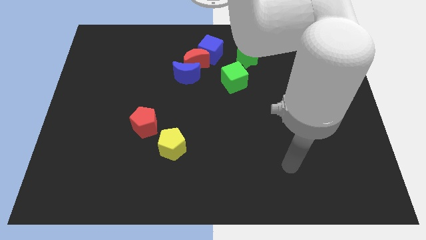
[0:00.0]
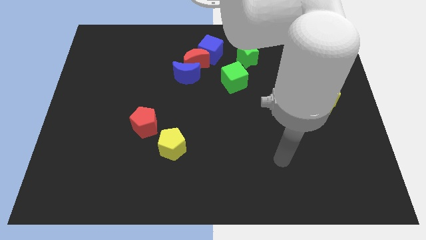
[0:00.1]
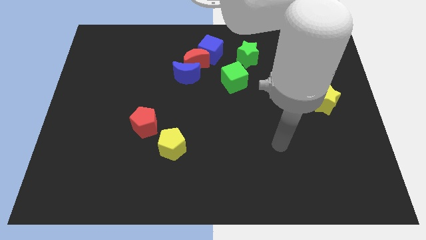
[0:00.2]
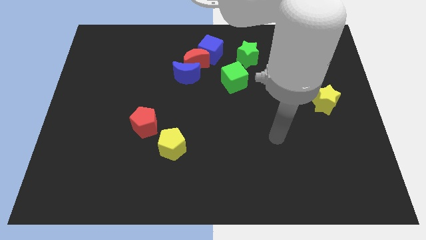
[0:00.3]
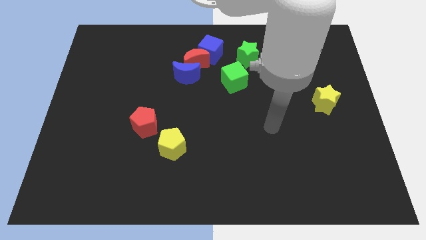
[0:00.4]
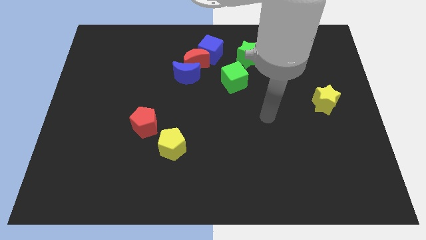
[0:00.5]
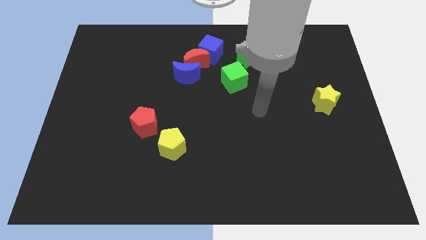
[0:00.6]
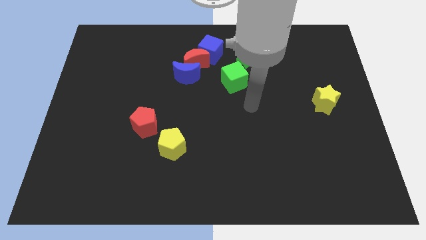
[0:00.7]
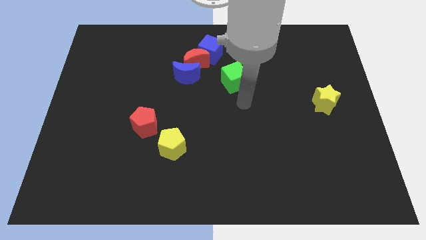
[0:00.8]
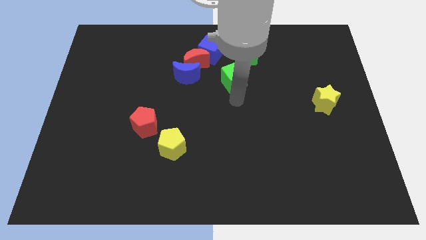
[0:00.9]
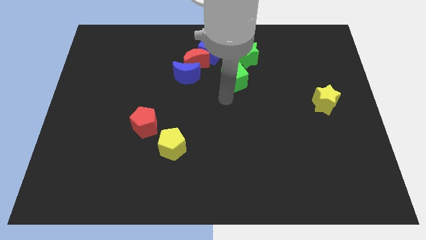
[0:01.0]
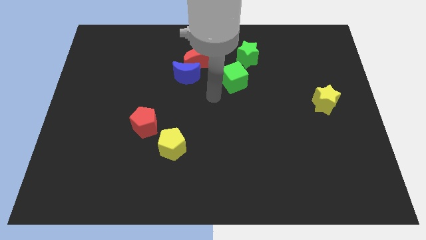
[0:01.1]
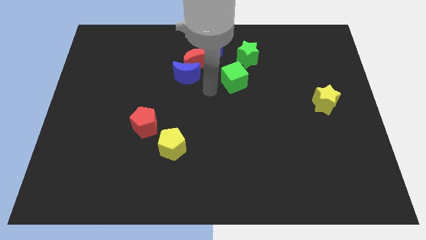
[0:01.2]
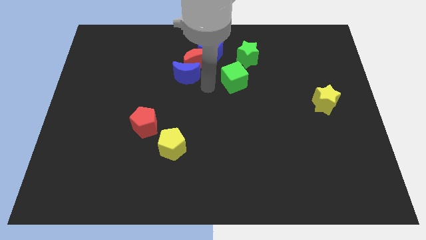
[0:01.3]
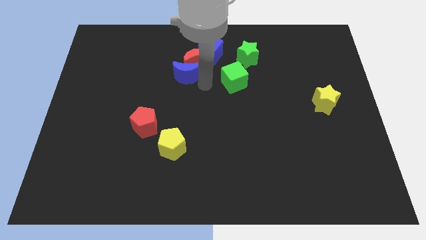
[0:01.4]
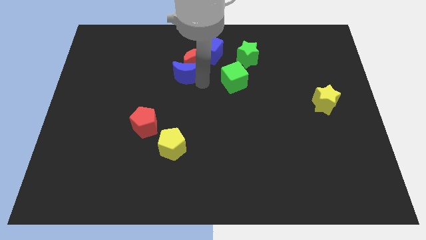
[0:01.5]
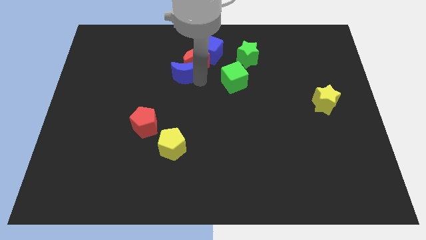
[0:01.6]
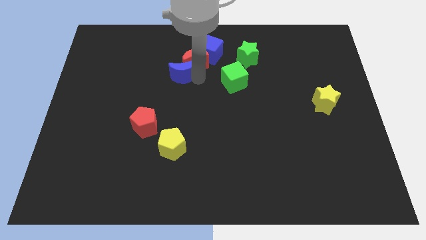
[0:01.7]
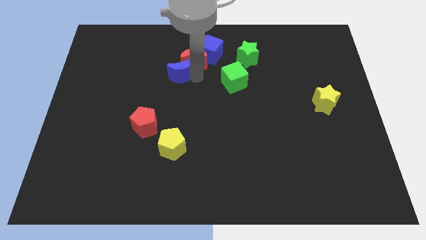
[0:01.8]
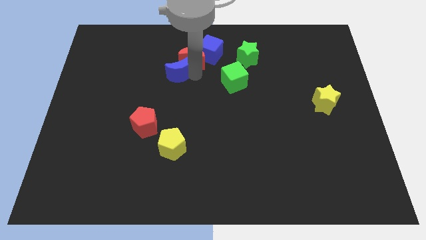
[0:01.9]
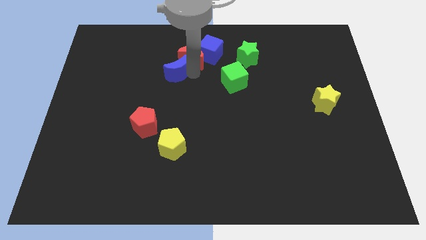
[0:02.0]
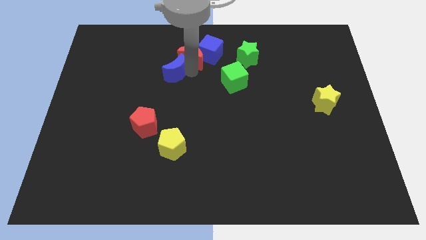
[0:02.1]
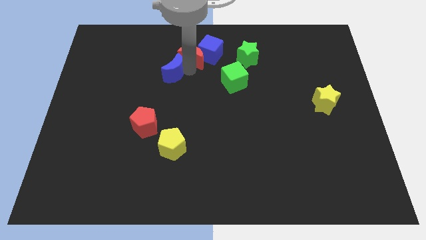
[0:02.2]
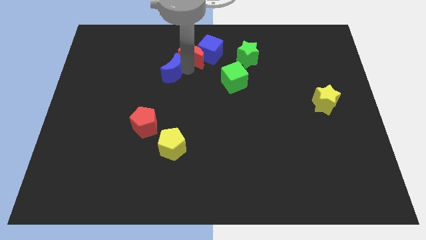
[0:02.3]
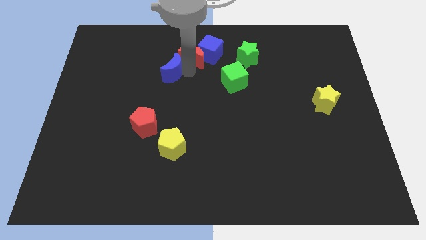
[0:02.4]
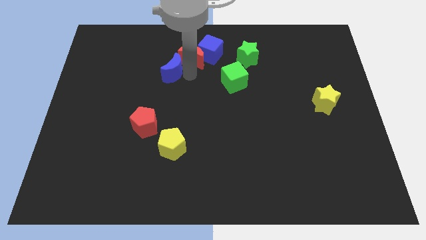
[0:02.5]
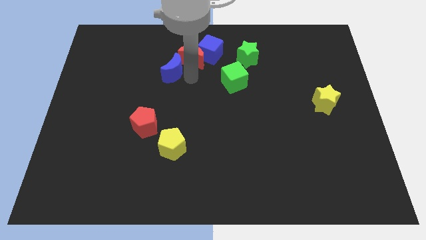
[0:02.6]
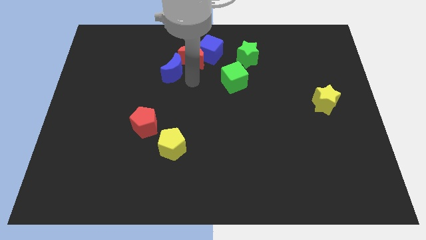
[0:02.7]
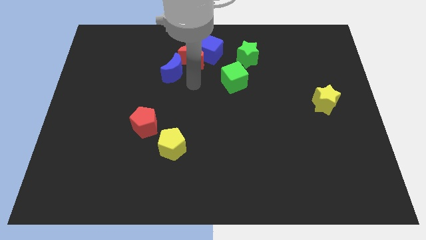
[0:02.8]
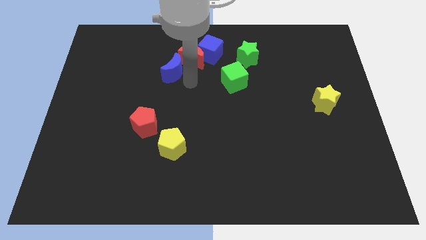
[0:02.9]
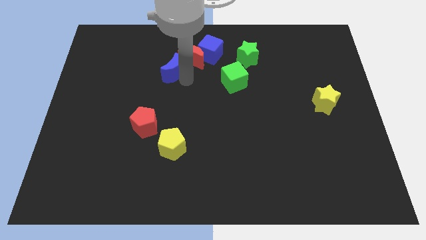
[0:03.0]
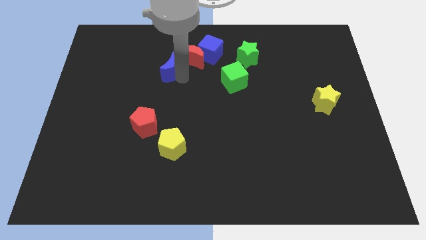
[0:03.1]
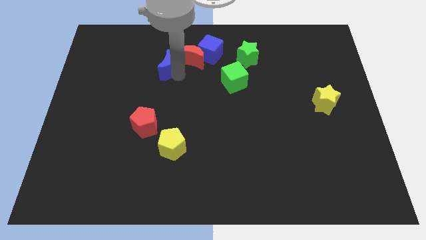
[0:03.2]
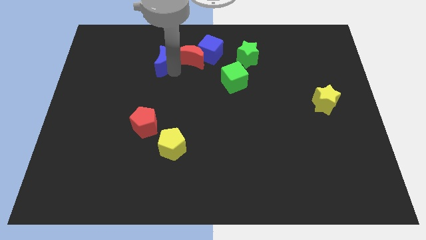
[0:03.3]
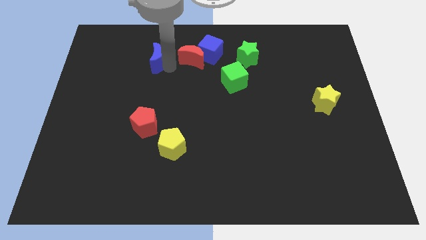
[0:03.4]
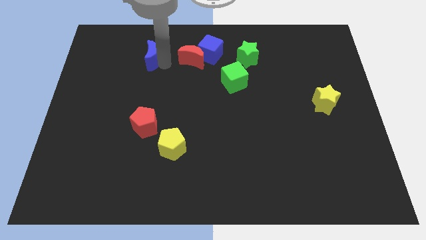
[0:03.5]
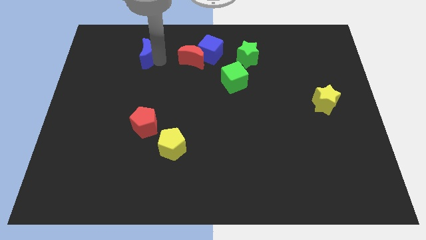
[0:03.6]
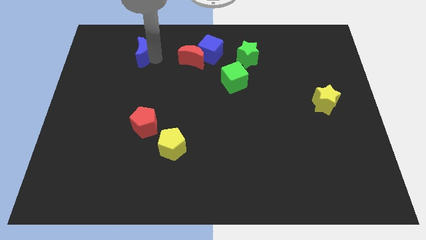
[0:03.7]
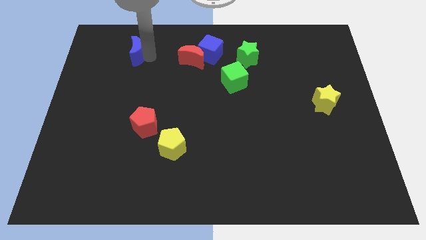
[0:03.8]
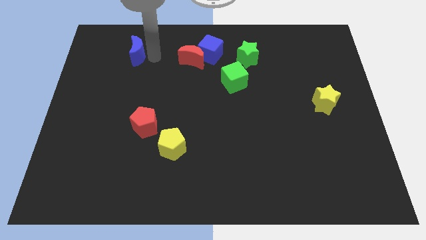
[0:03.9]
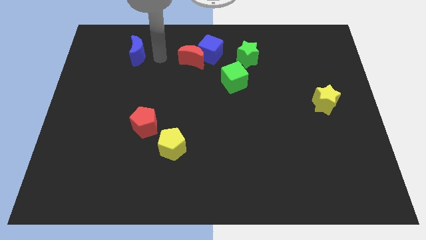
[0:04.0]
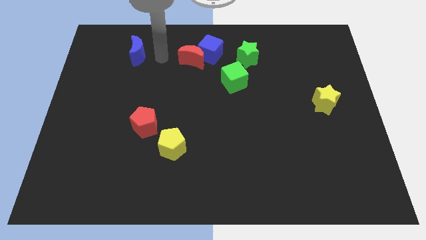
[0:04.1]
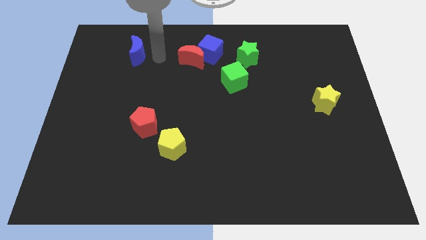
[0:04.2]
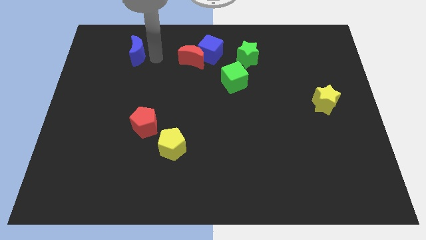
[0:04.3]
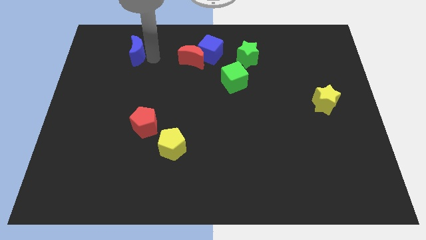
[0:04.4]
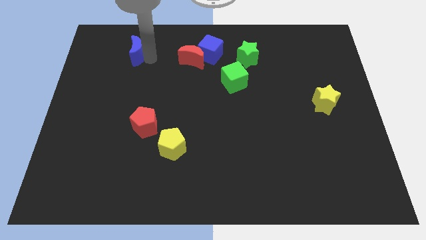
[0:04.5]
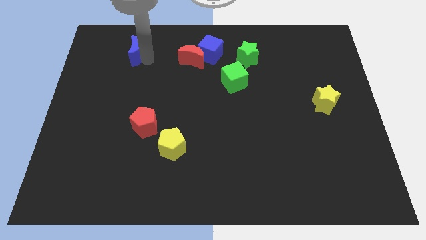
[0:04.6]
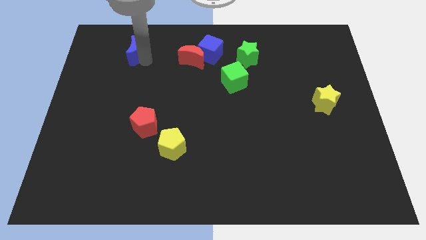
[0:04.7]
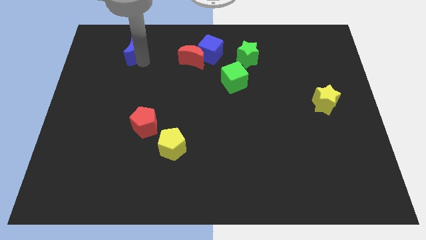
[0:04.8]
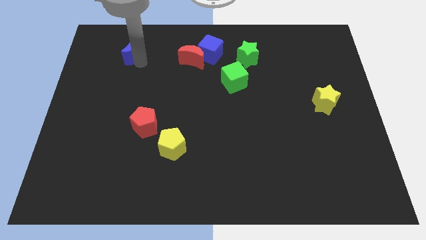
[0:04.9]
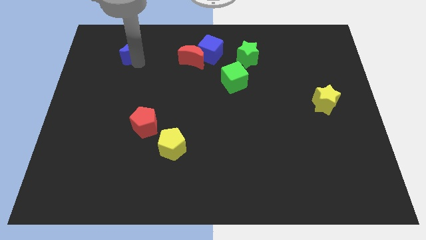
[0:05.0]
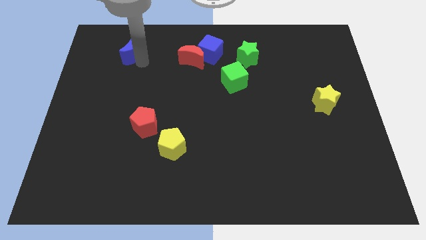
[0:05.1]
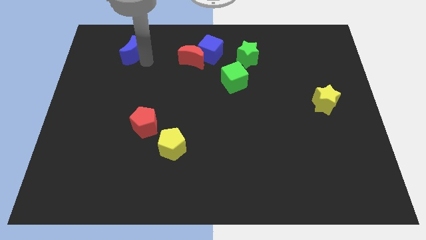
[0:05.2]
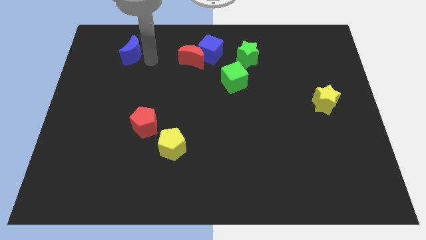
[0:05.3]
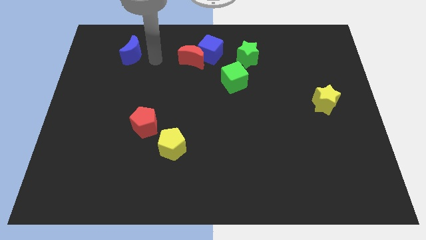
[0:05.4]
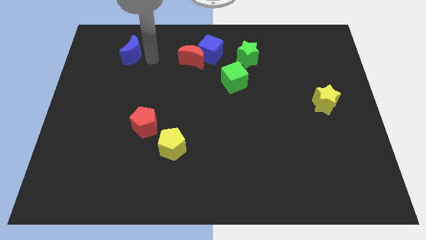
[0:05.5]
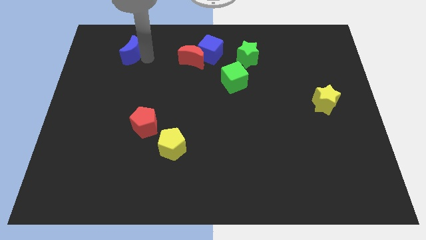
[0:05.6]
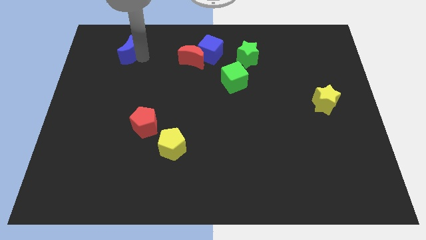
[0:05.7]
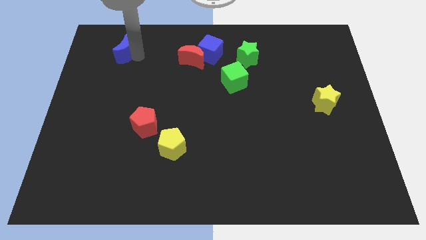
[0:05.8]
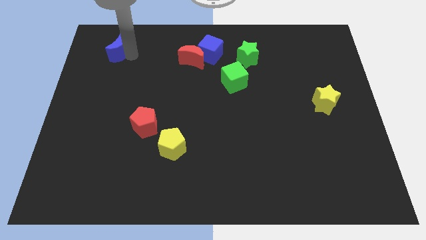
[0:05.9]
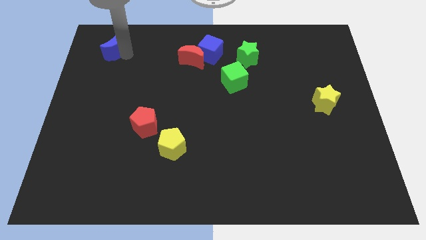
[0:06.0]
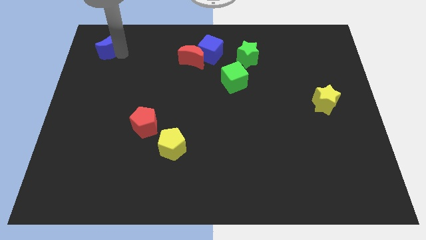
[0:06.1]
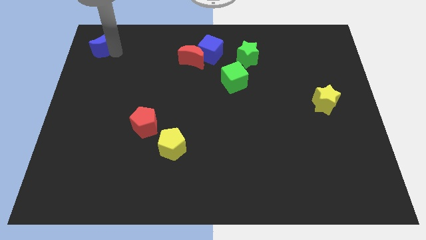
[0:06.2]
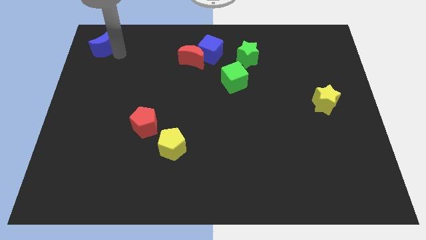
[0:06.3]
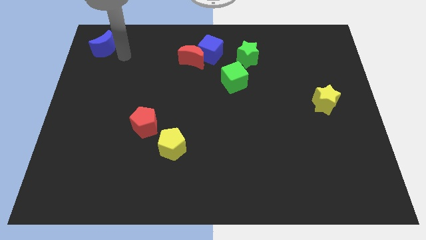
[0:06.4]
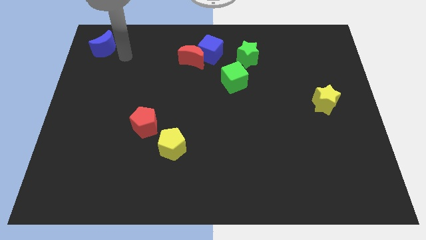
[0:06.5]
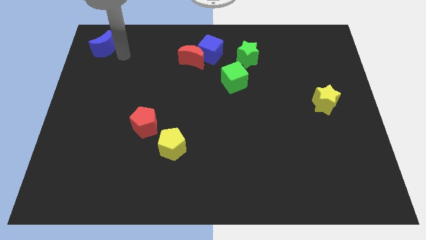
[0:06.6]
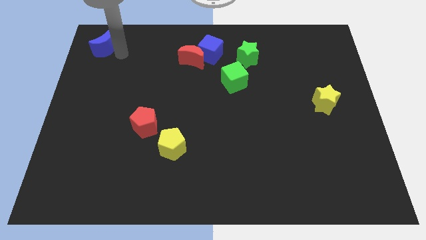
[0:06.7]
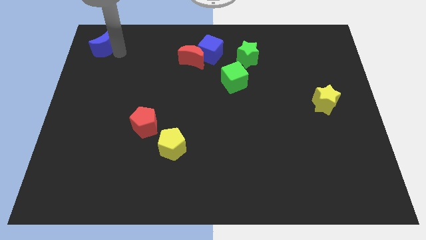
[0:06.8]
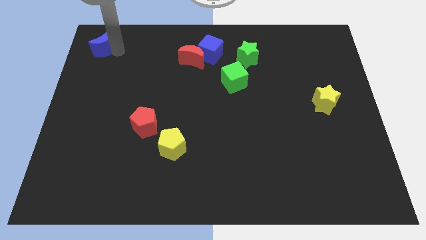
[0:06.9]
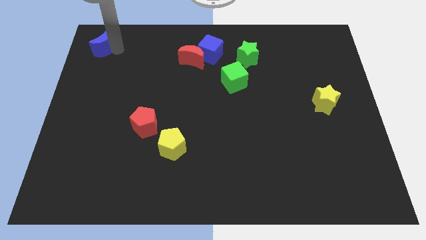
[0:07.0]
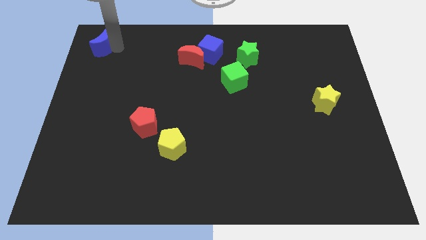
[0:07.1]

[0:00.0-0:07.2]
push the blue moon to the top left
